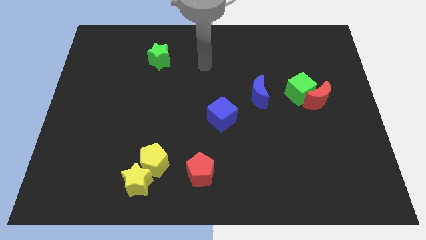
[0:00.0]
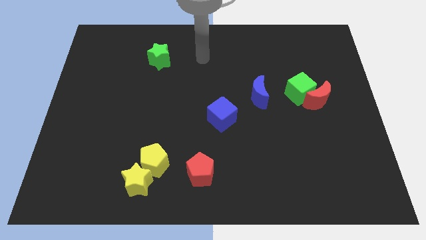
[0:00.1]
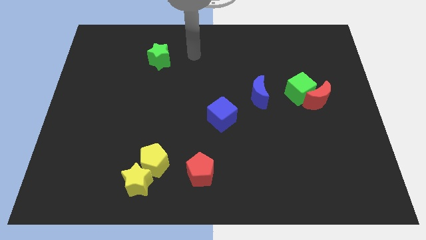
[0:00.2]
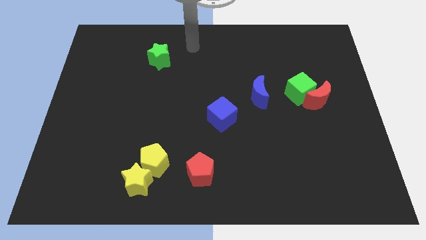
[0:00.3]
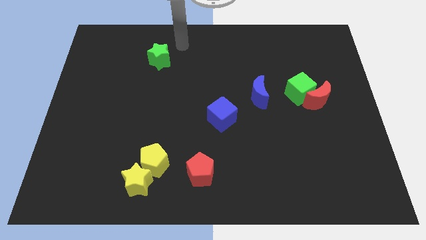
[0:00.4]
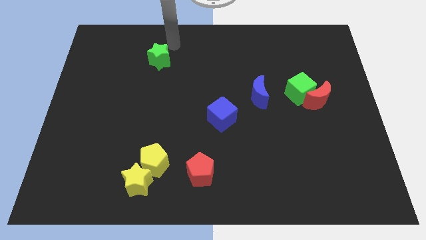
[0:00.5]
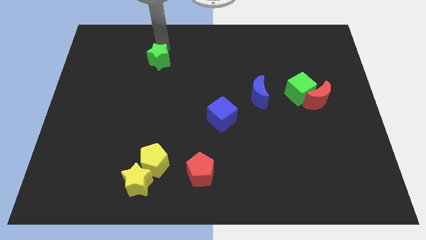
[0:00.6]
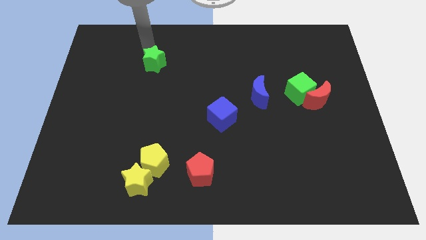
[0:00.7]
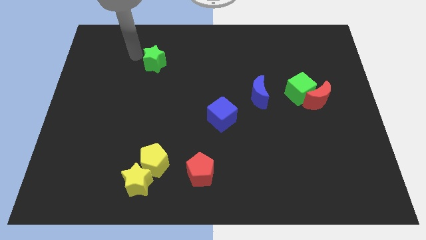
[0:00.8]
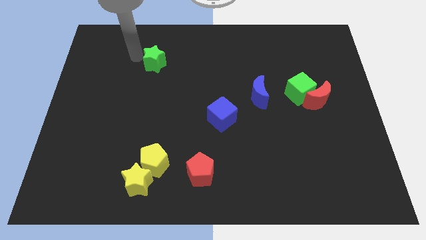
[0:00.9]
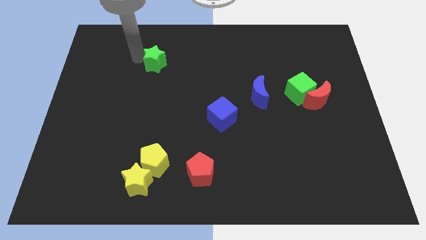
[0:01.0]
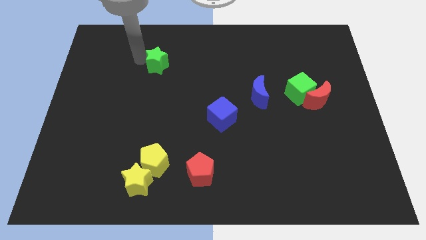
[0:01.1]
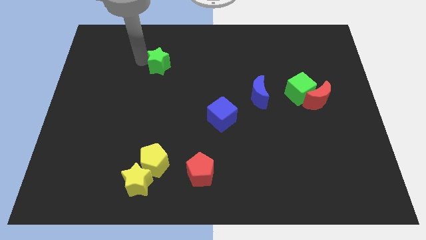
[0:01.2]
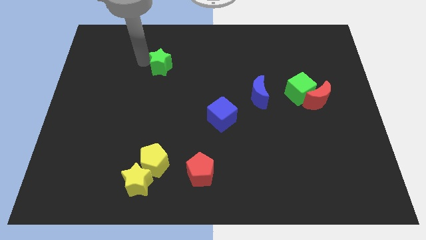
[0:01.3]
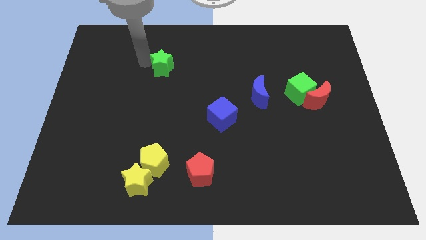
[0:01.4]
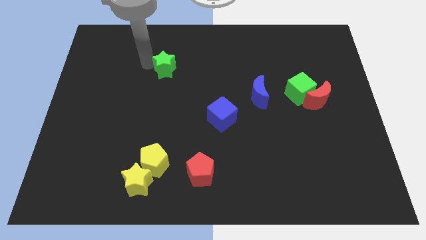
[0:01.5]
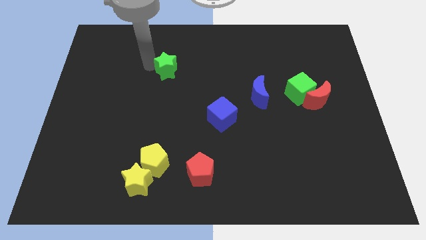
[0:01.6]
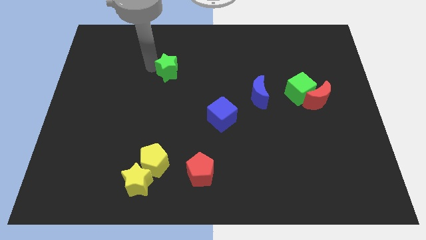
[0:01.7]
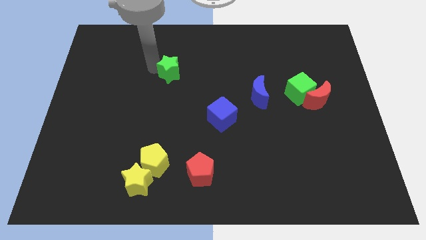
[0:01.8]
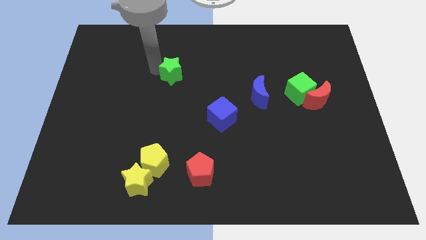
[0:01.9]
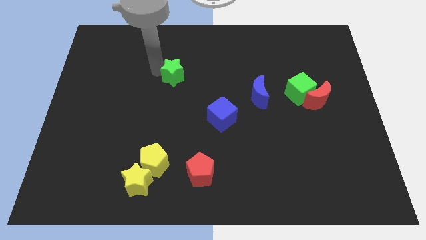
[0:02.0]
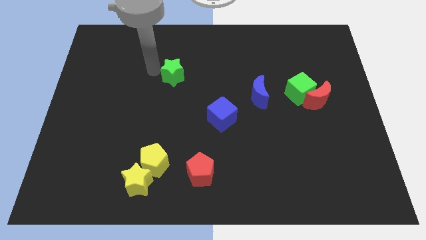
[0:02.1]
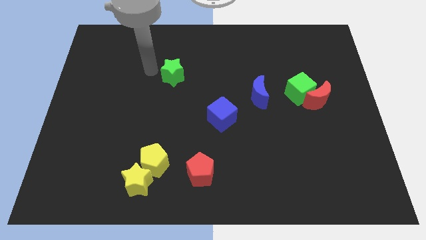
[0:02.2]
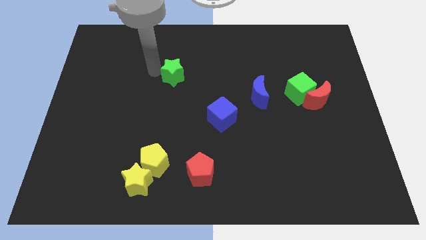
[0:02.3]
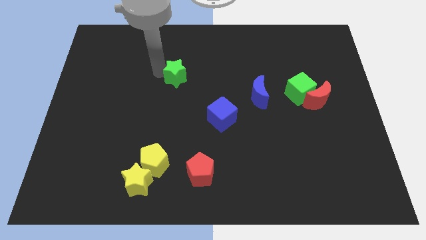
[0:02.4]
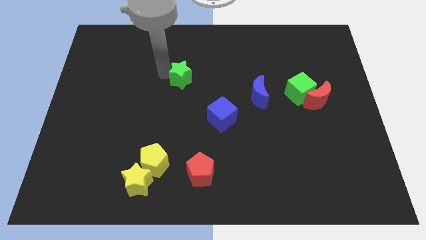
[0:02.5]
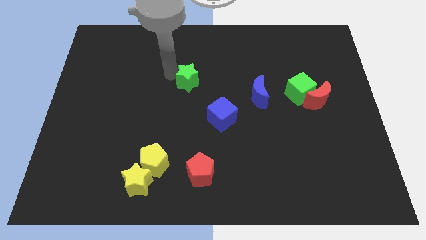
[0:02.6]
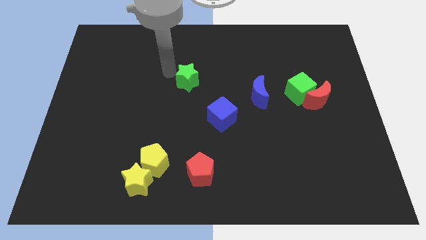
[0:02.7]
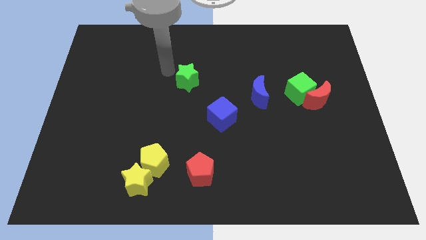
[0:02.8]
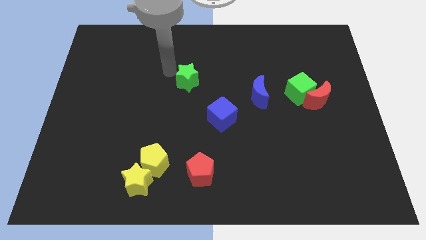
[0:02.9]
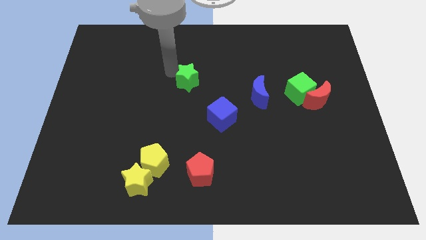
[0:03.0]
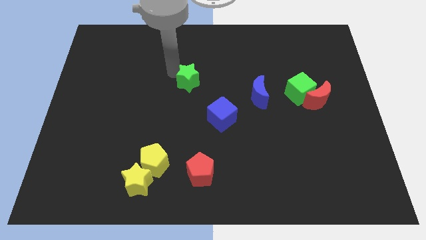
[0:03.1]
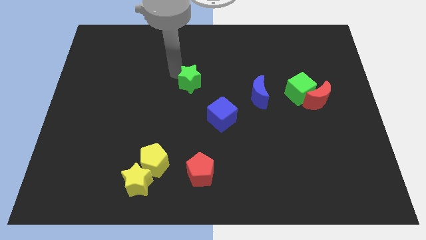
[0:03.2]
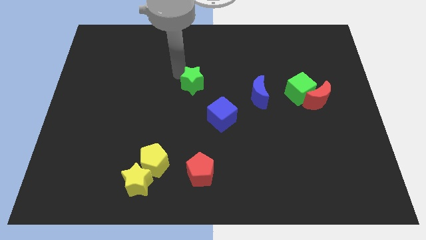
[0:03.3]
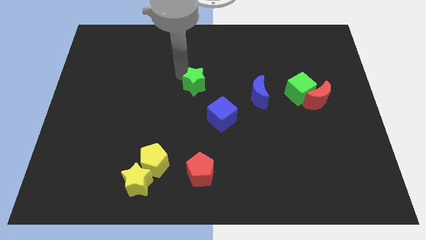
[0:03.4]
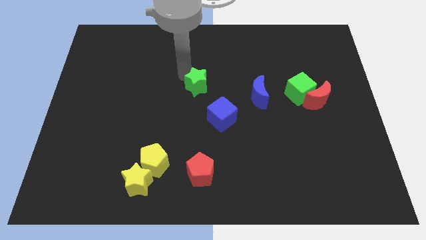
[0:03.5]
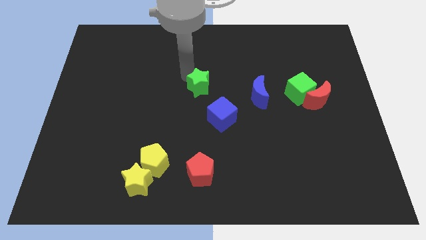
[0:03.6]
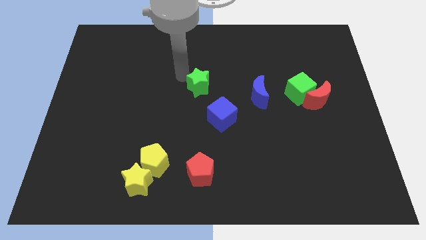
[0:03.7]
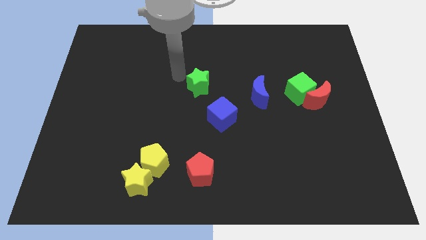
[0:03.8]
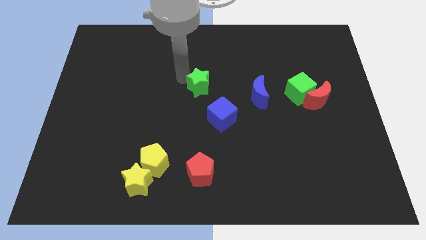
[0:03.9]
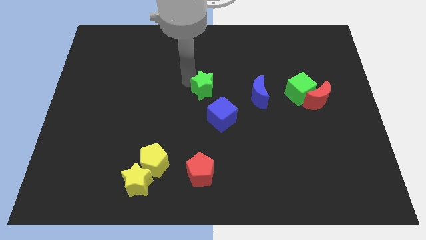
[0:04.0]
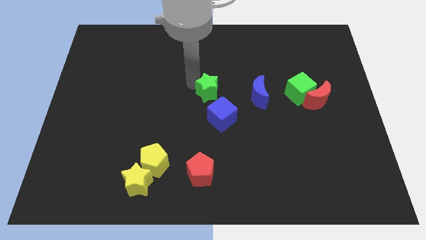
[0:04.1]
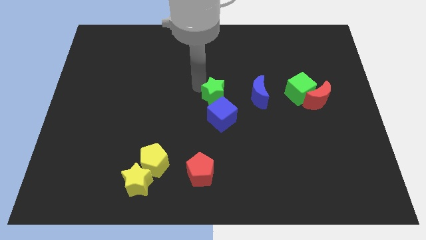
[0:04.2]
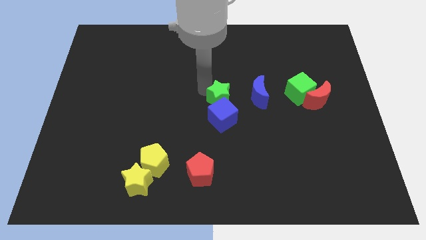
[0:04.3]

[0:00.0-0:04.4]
move the green star diagonally down and right

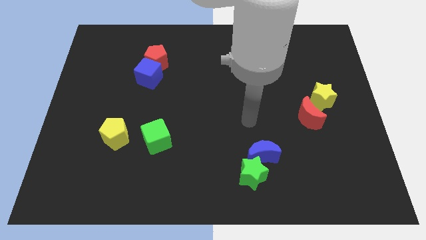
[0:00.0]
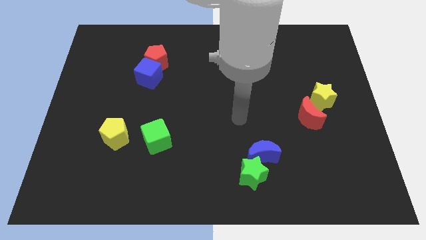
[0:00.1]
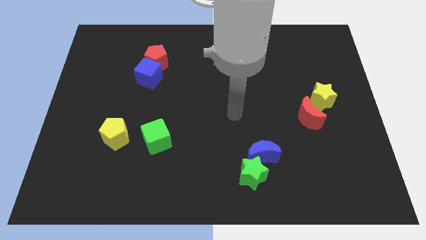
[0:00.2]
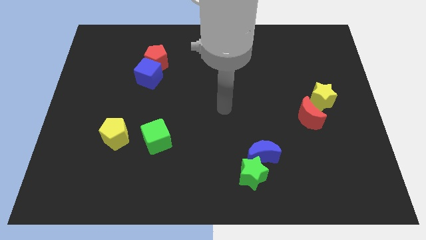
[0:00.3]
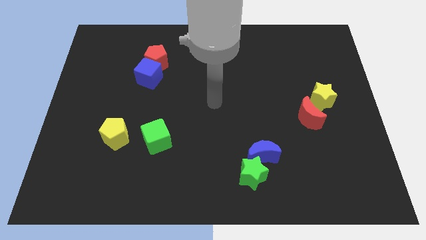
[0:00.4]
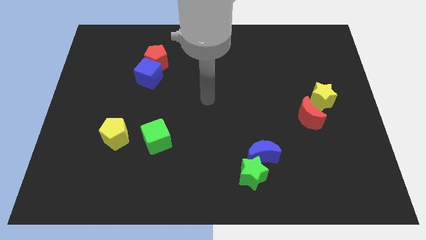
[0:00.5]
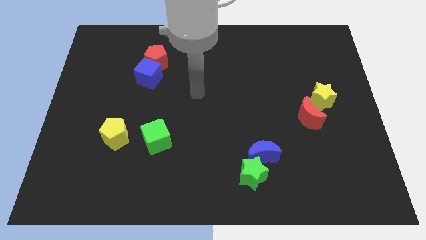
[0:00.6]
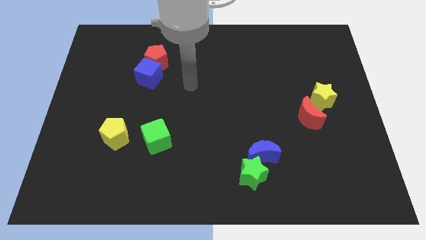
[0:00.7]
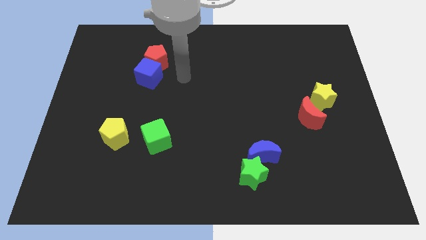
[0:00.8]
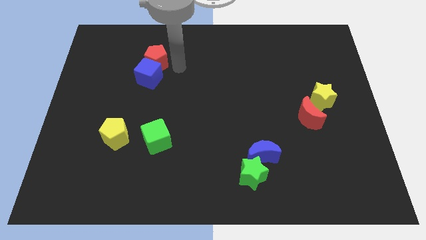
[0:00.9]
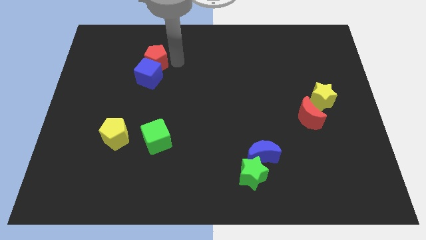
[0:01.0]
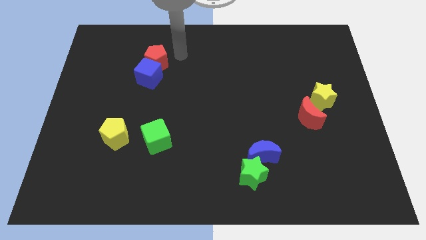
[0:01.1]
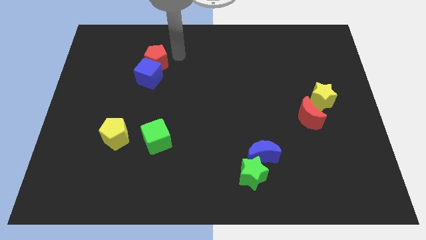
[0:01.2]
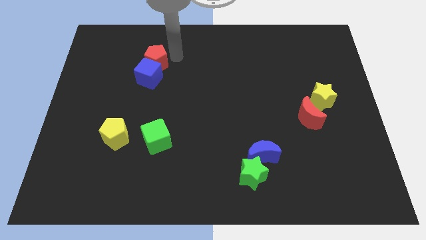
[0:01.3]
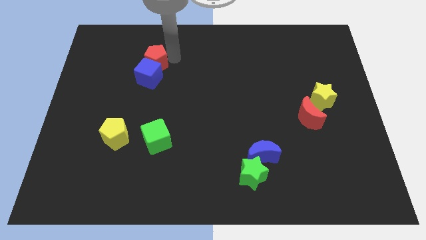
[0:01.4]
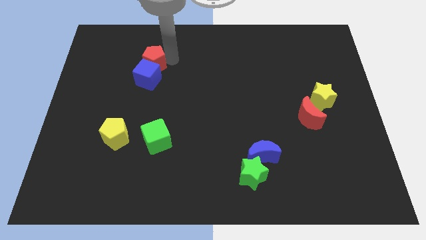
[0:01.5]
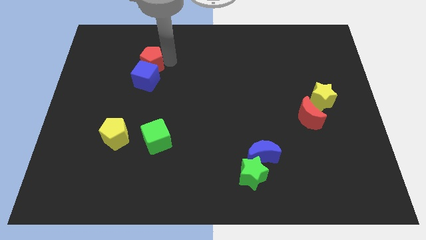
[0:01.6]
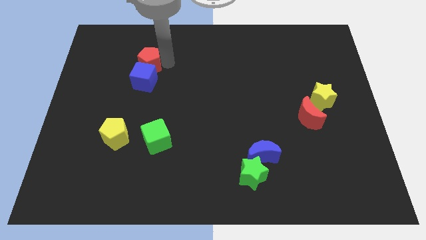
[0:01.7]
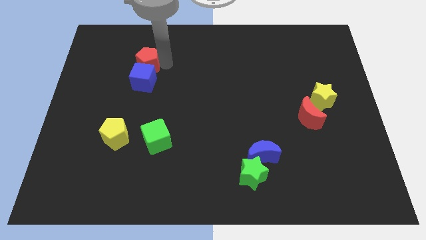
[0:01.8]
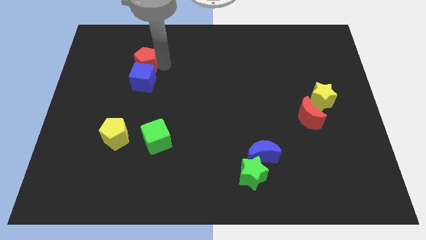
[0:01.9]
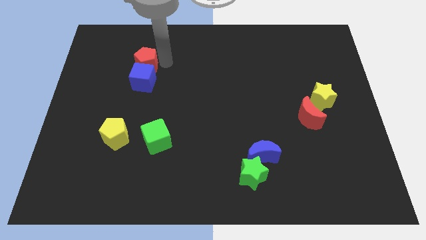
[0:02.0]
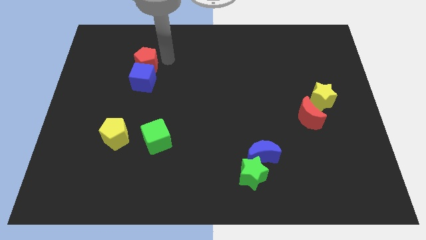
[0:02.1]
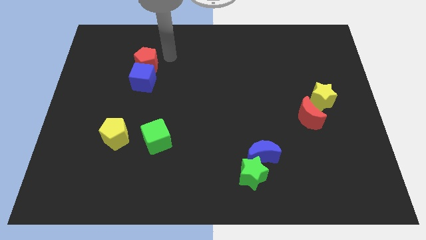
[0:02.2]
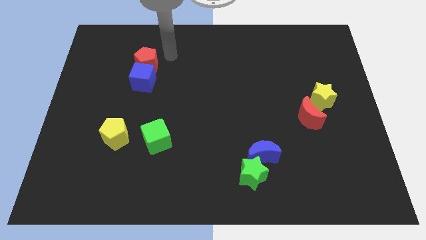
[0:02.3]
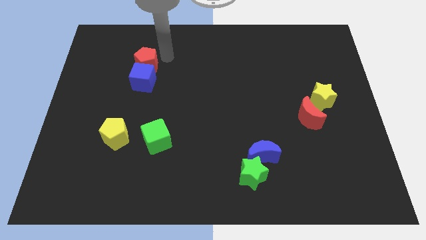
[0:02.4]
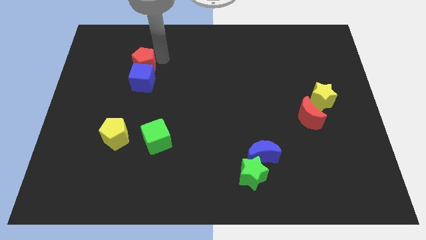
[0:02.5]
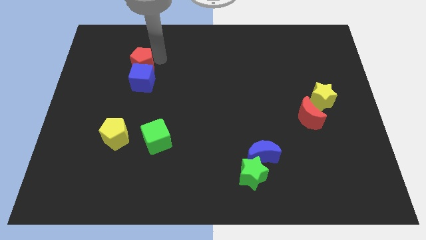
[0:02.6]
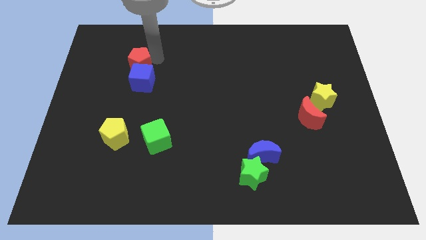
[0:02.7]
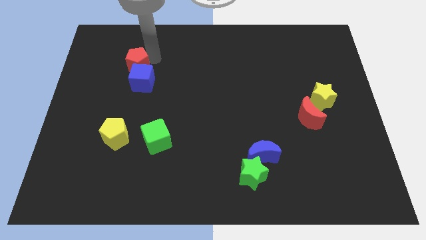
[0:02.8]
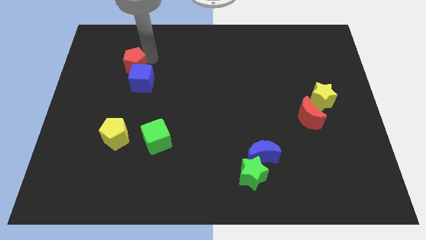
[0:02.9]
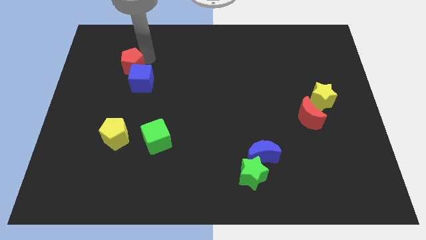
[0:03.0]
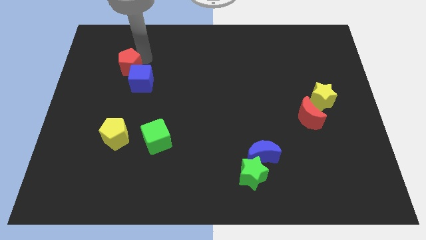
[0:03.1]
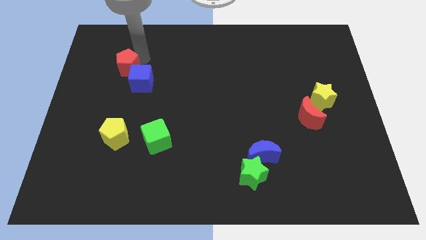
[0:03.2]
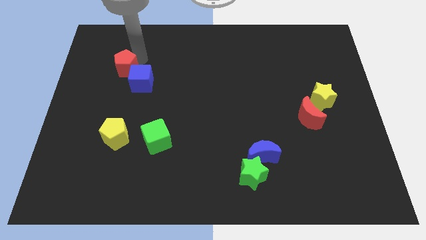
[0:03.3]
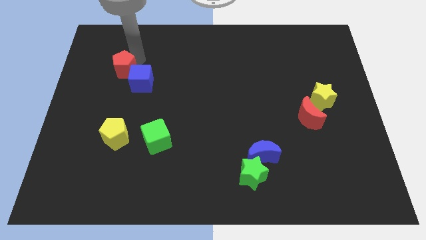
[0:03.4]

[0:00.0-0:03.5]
push the red pentagon somewhat diagonally downwards and to the left
